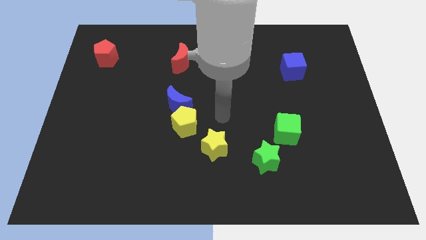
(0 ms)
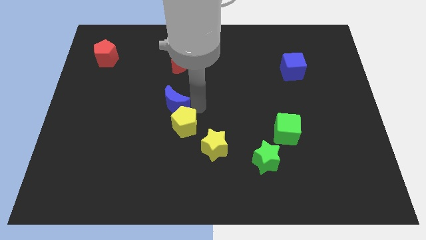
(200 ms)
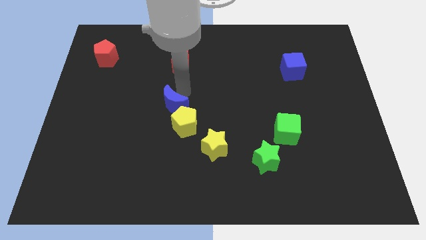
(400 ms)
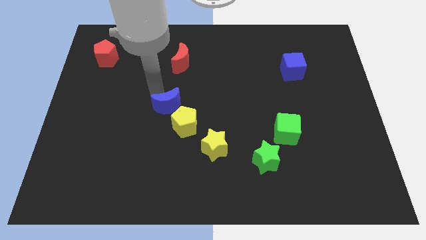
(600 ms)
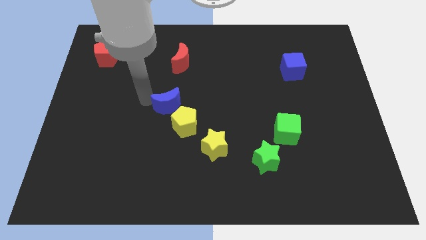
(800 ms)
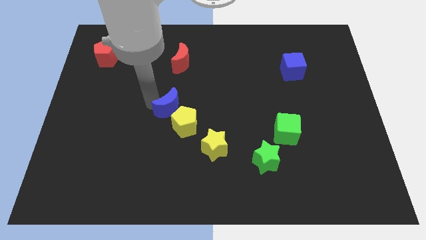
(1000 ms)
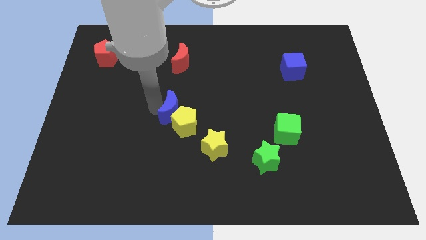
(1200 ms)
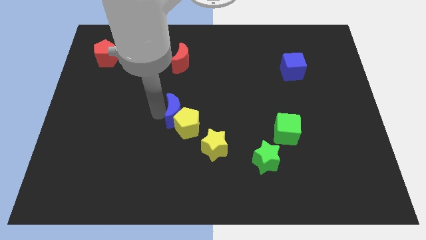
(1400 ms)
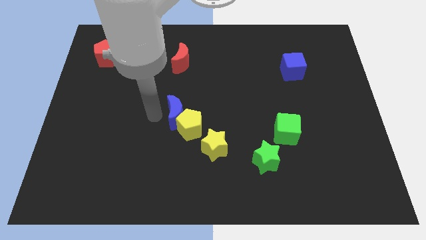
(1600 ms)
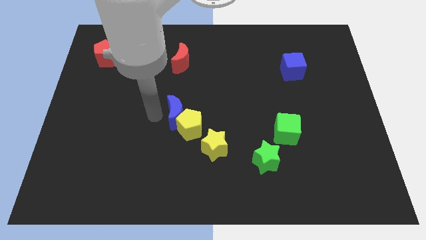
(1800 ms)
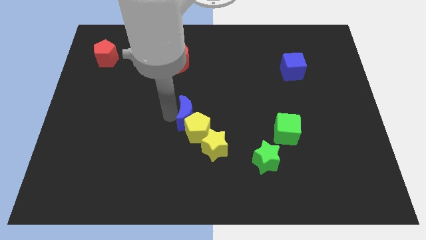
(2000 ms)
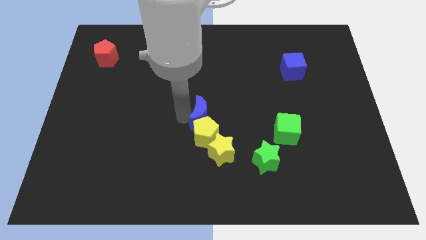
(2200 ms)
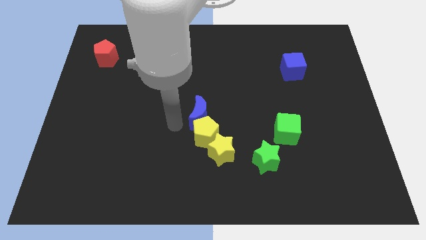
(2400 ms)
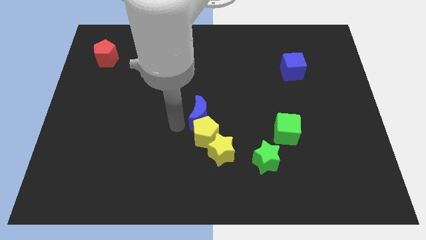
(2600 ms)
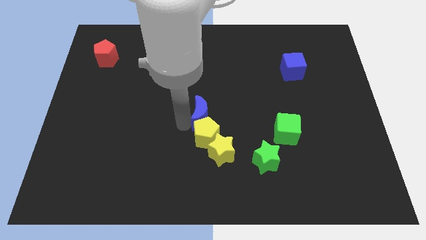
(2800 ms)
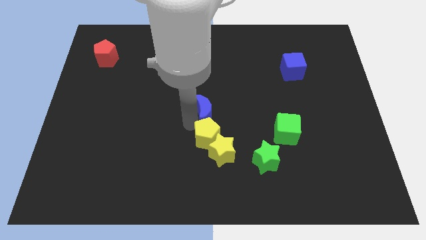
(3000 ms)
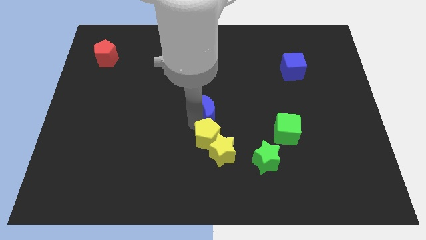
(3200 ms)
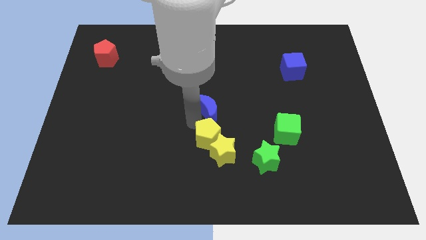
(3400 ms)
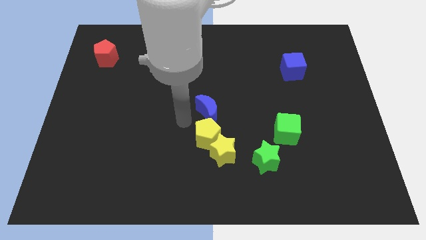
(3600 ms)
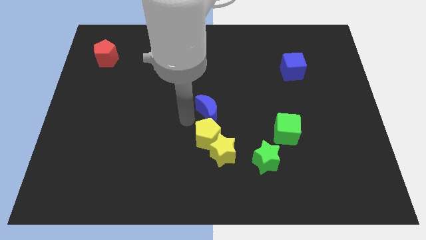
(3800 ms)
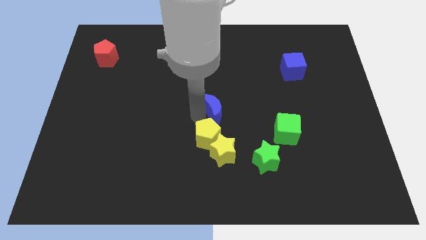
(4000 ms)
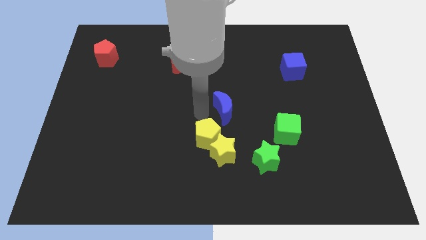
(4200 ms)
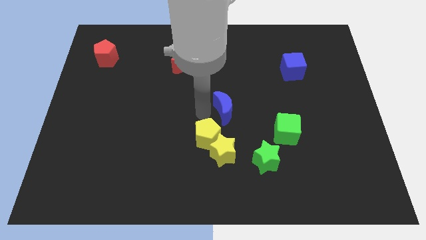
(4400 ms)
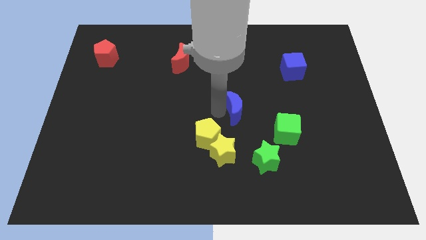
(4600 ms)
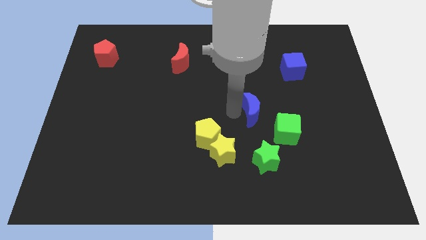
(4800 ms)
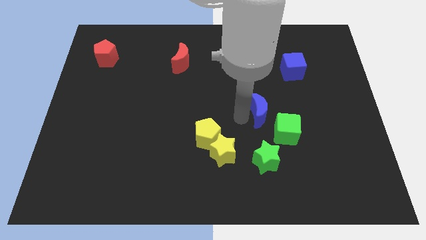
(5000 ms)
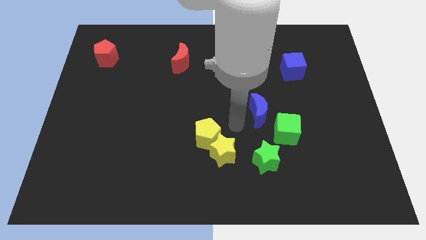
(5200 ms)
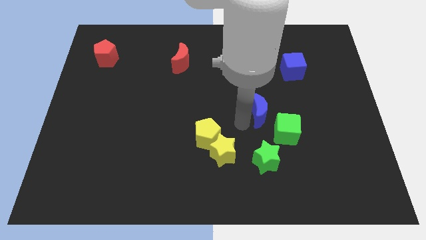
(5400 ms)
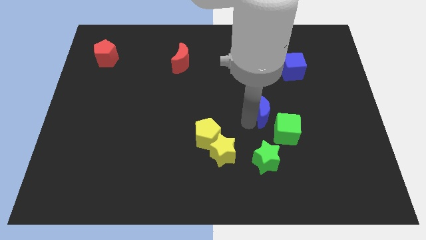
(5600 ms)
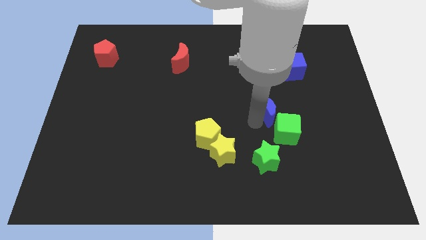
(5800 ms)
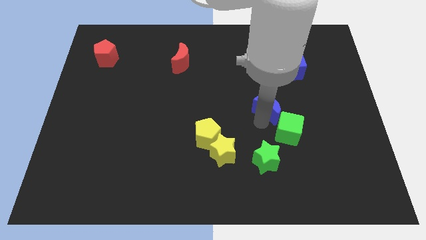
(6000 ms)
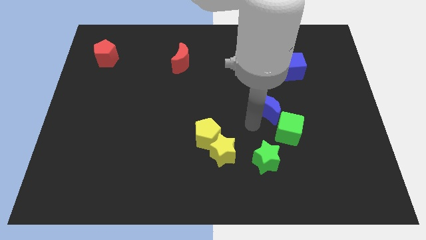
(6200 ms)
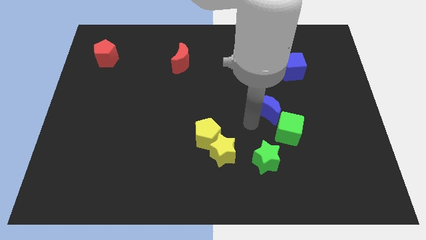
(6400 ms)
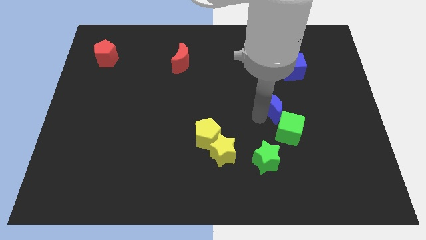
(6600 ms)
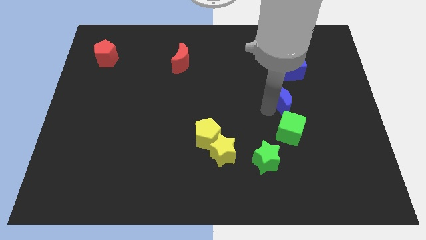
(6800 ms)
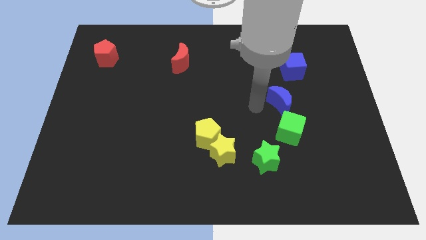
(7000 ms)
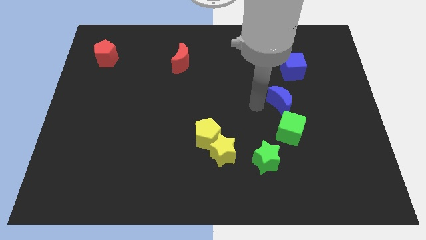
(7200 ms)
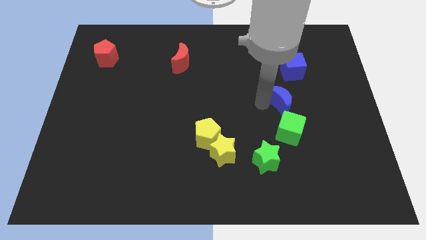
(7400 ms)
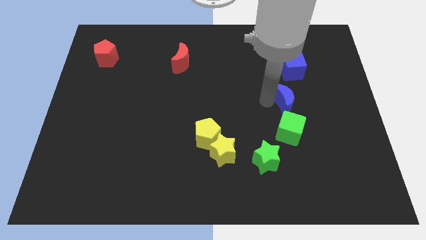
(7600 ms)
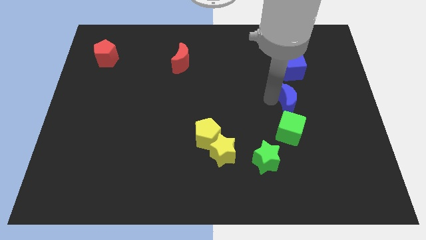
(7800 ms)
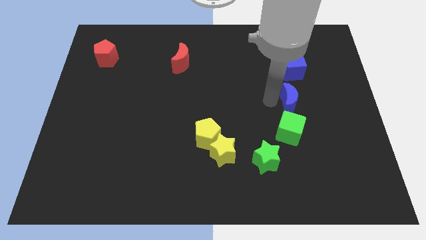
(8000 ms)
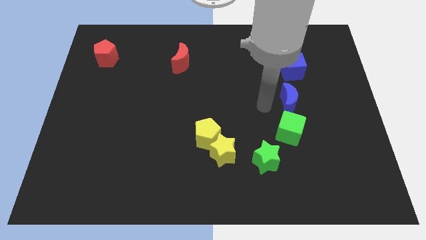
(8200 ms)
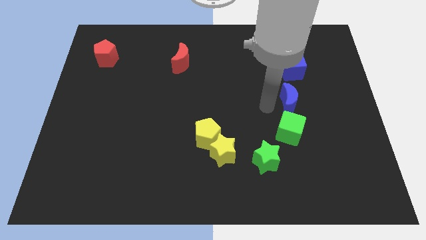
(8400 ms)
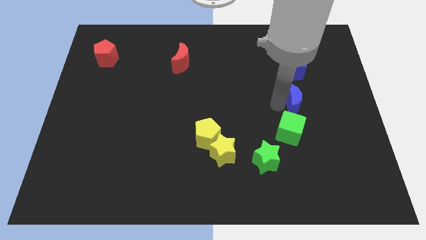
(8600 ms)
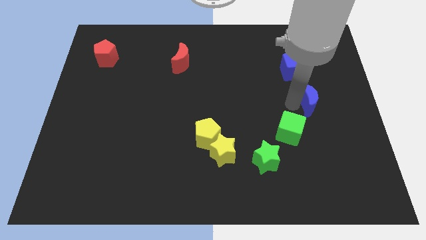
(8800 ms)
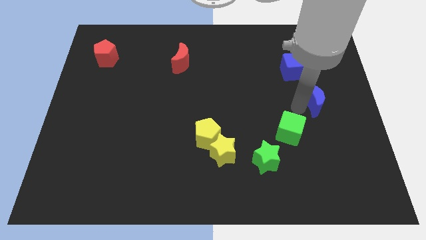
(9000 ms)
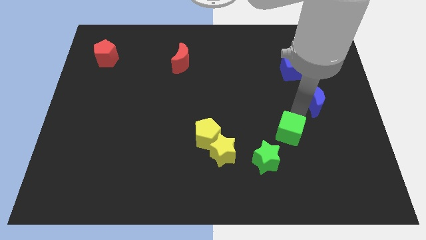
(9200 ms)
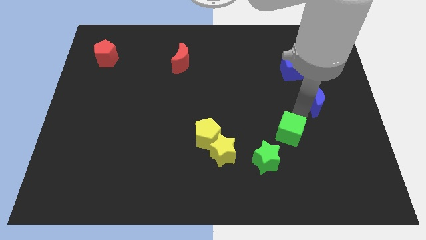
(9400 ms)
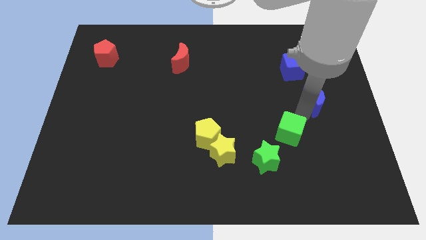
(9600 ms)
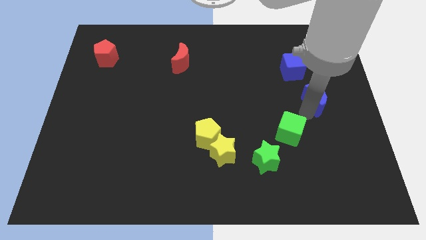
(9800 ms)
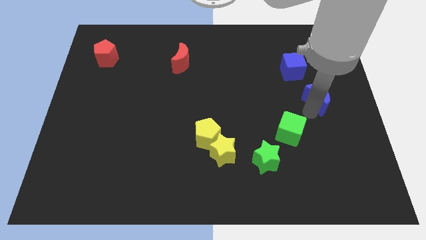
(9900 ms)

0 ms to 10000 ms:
put the blue moon to the center right

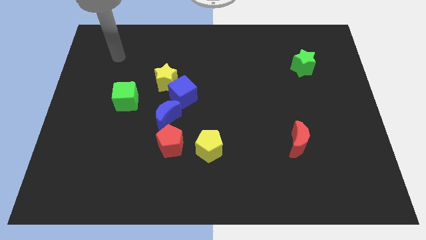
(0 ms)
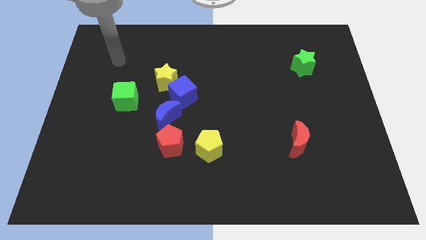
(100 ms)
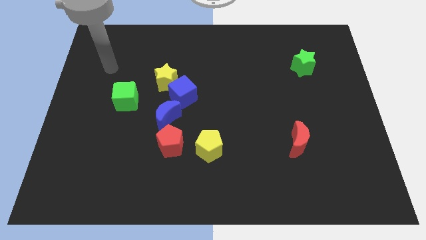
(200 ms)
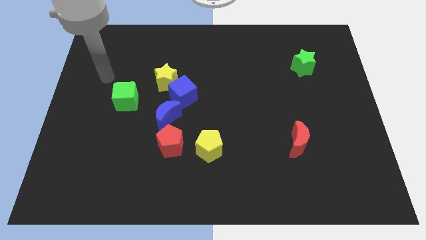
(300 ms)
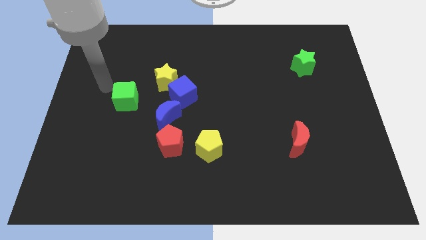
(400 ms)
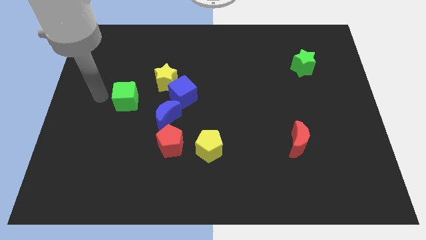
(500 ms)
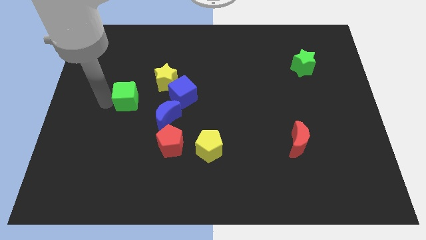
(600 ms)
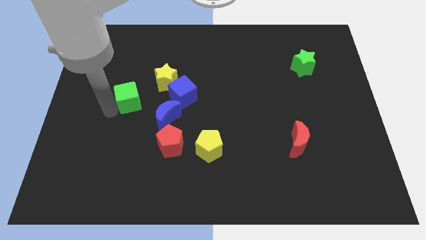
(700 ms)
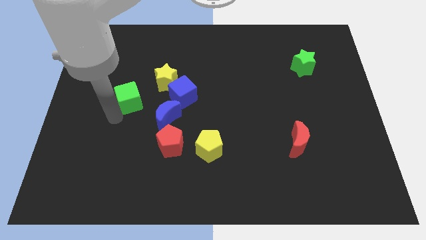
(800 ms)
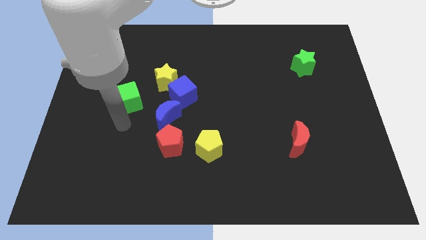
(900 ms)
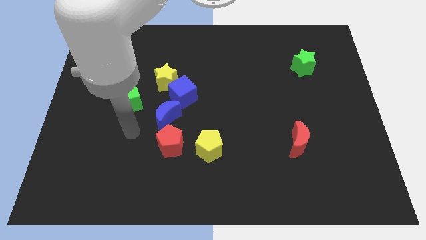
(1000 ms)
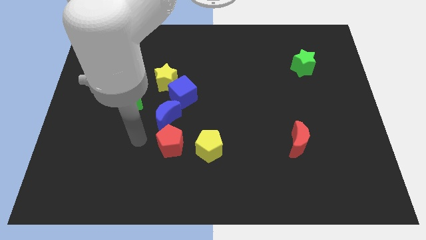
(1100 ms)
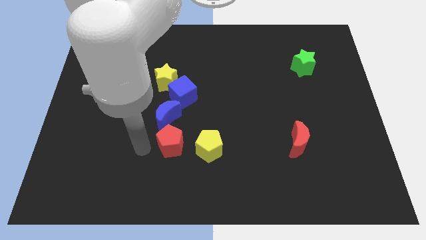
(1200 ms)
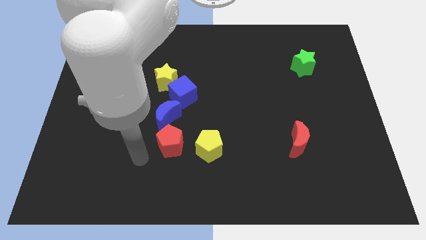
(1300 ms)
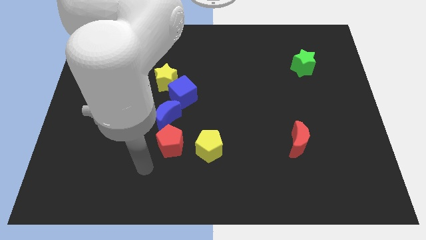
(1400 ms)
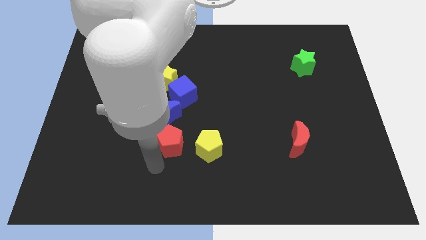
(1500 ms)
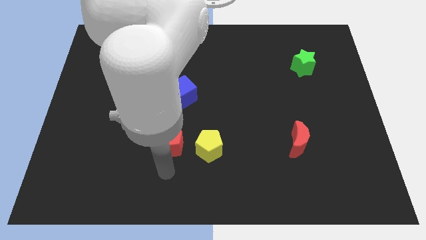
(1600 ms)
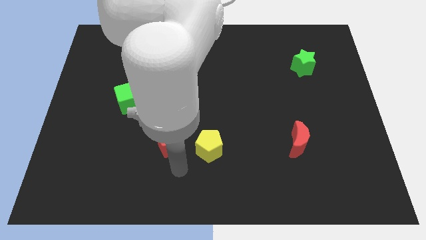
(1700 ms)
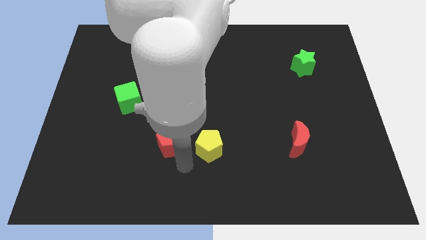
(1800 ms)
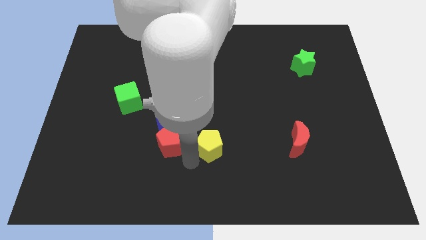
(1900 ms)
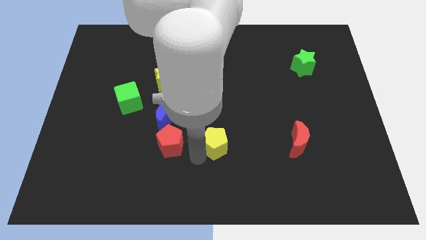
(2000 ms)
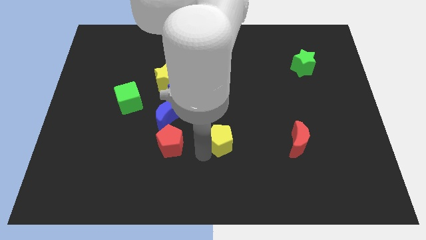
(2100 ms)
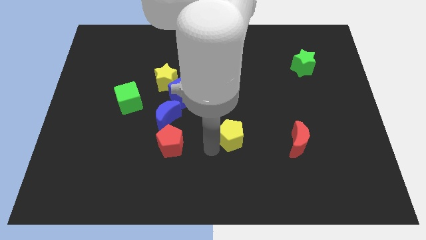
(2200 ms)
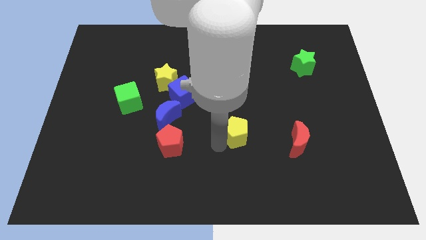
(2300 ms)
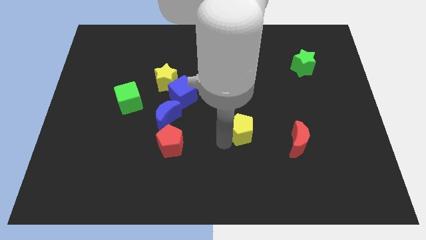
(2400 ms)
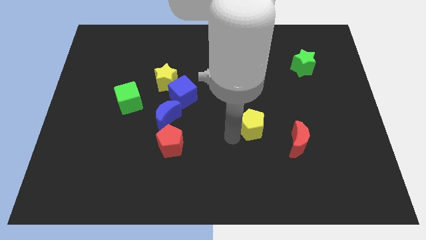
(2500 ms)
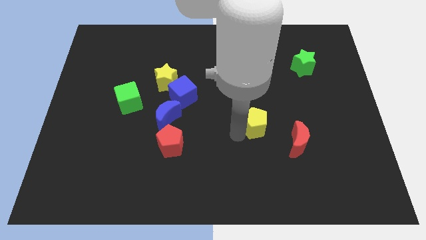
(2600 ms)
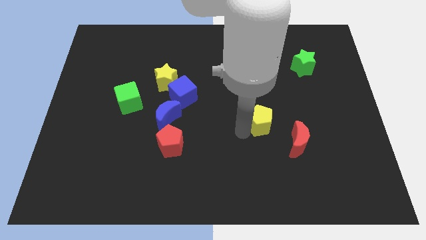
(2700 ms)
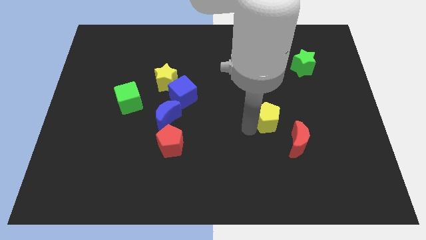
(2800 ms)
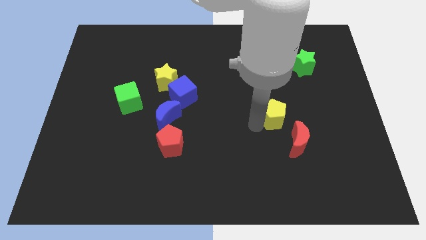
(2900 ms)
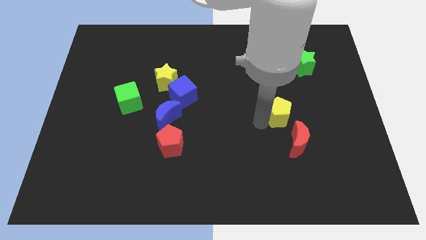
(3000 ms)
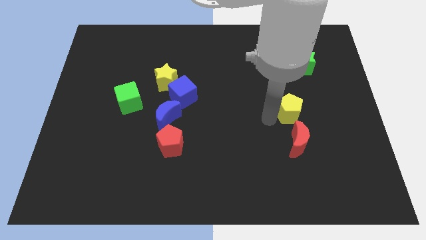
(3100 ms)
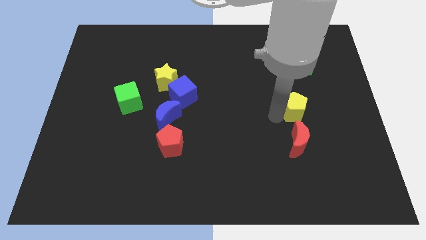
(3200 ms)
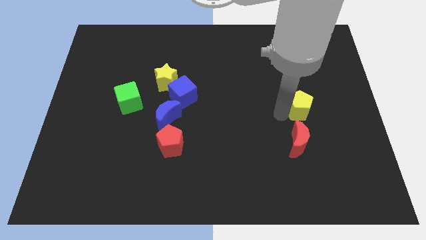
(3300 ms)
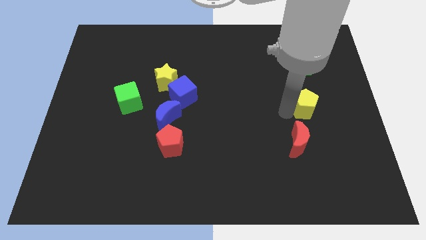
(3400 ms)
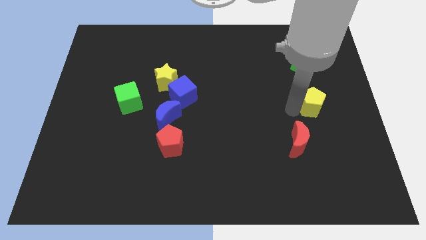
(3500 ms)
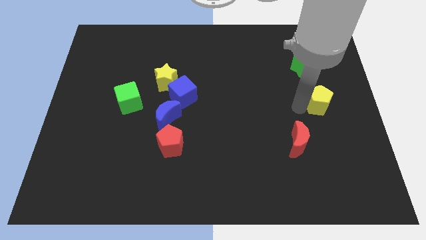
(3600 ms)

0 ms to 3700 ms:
push the yellow pentagon to the right side
